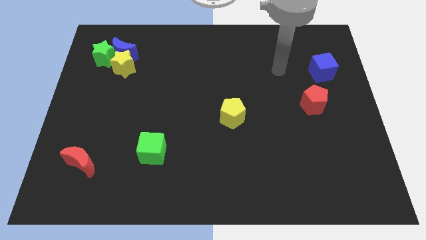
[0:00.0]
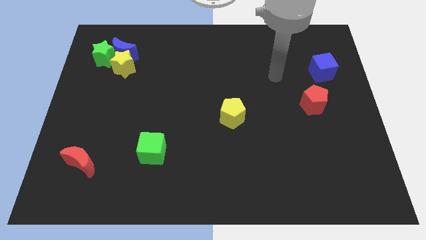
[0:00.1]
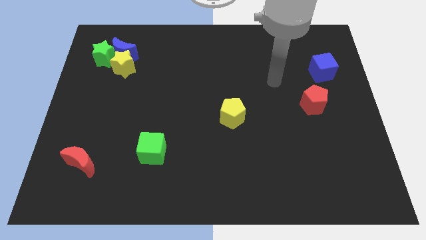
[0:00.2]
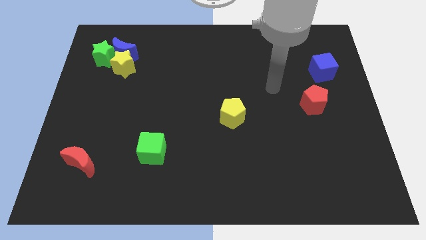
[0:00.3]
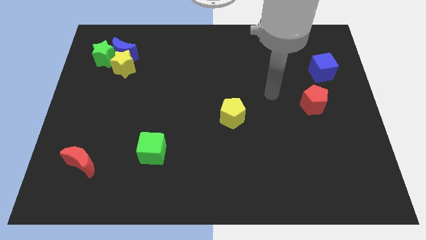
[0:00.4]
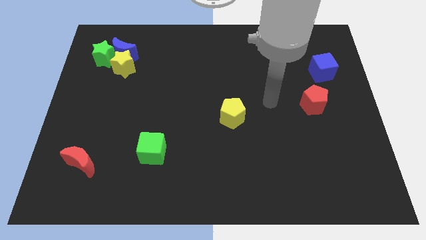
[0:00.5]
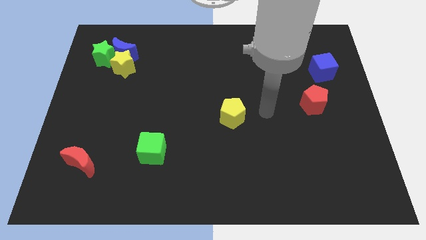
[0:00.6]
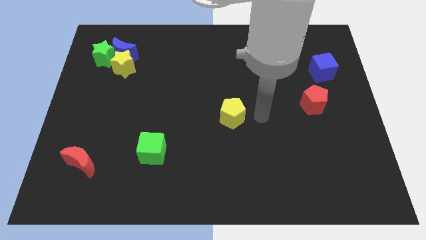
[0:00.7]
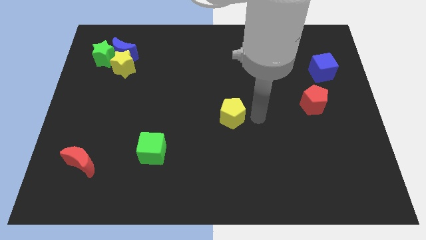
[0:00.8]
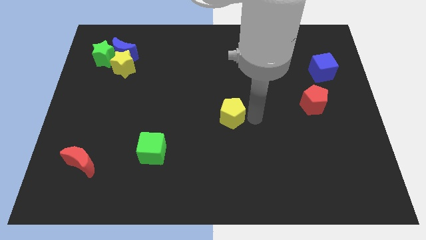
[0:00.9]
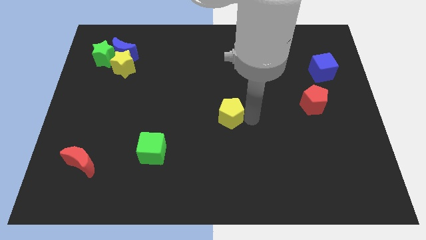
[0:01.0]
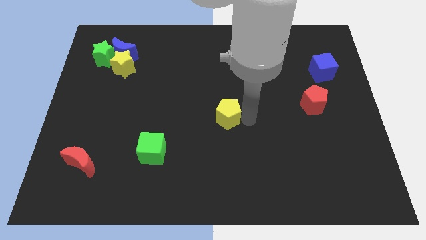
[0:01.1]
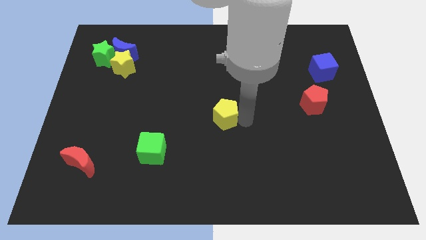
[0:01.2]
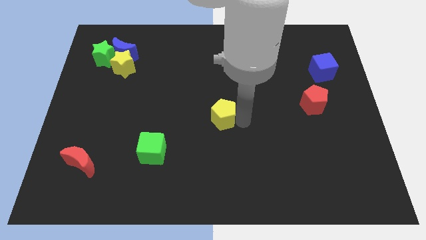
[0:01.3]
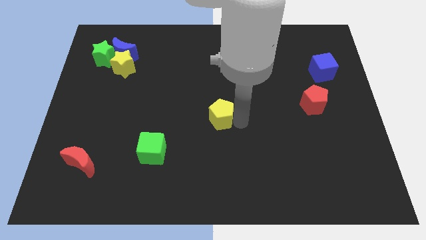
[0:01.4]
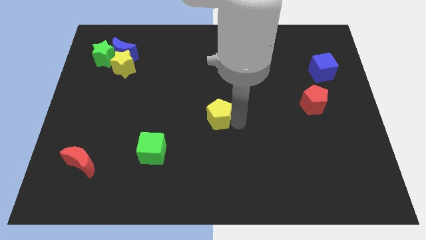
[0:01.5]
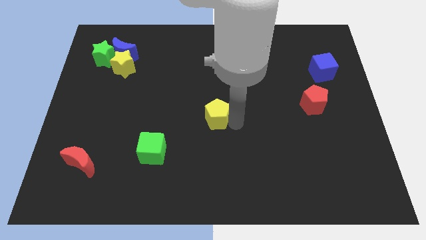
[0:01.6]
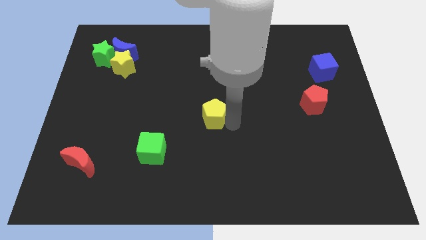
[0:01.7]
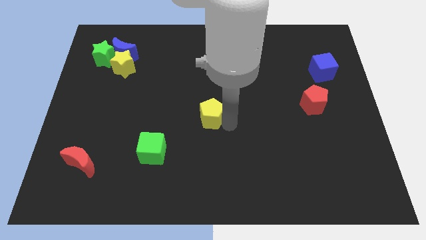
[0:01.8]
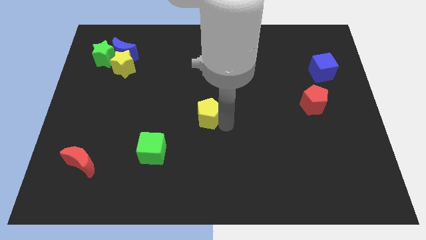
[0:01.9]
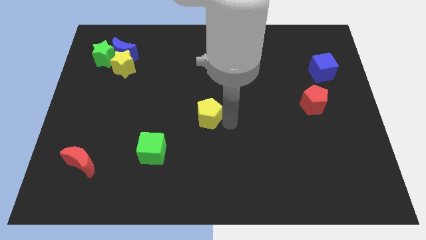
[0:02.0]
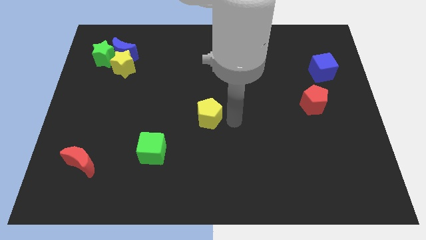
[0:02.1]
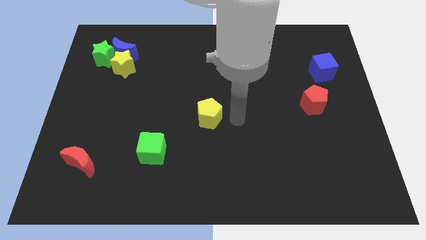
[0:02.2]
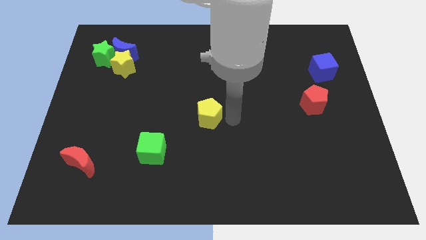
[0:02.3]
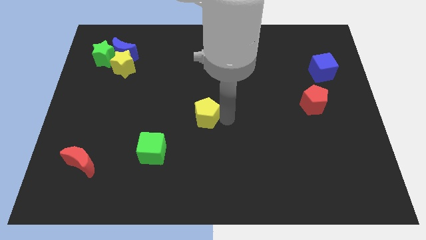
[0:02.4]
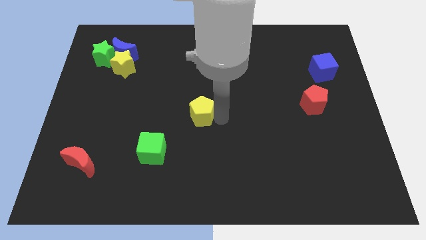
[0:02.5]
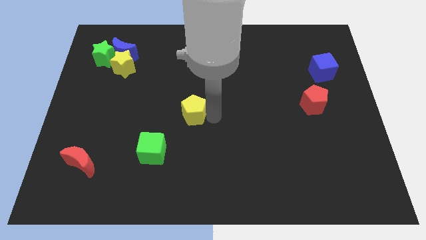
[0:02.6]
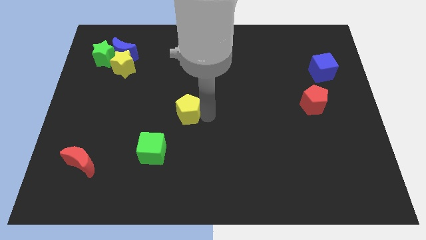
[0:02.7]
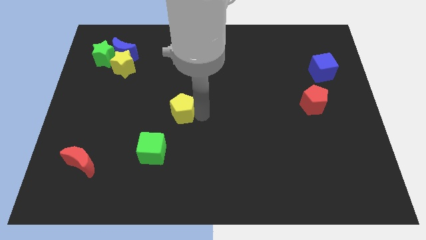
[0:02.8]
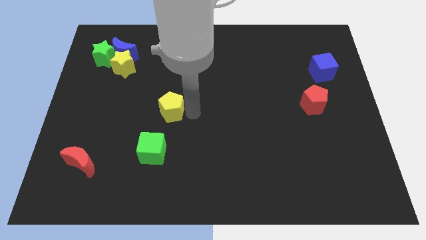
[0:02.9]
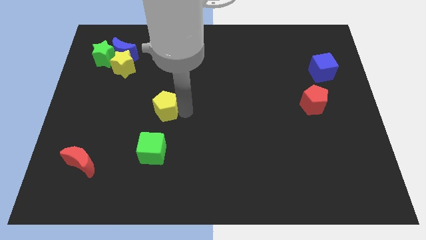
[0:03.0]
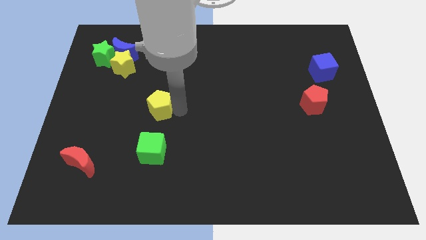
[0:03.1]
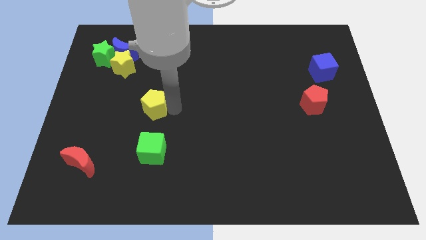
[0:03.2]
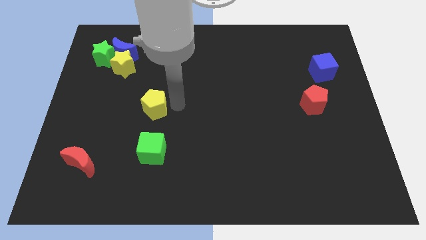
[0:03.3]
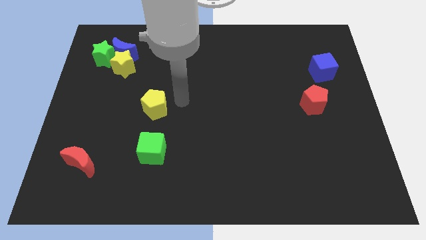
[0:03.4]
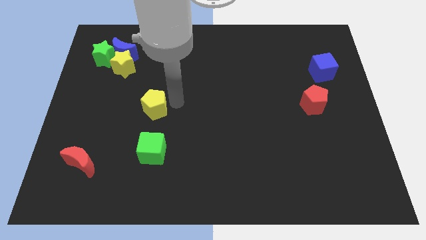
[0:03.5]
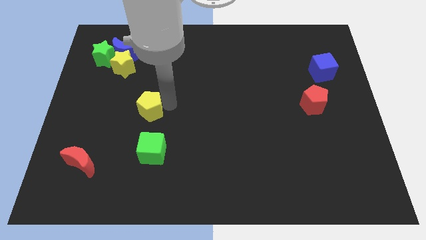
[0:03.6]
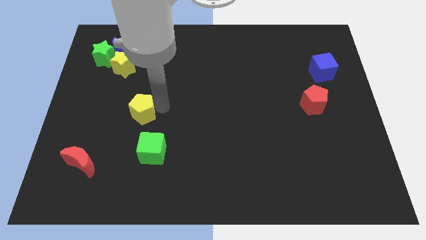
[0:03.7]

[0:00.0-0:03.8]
push the yellow pentagon left

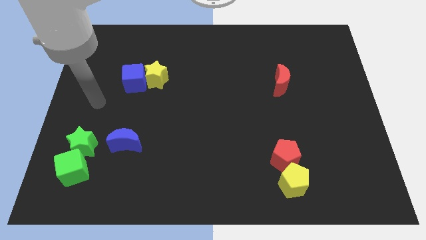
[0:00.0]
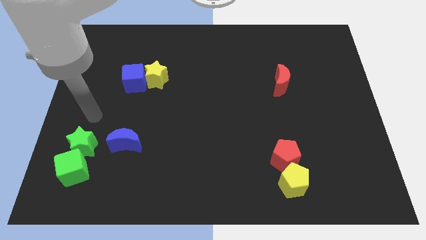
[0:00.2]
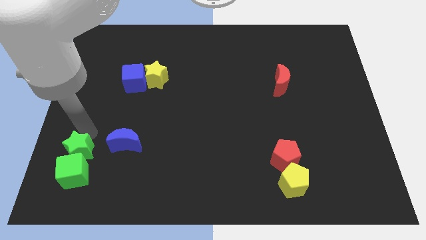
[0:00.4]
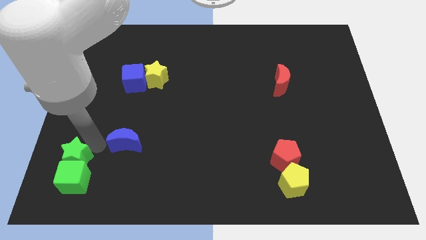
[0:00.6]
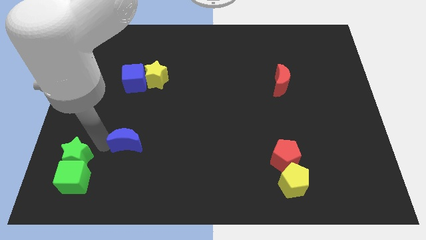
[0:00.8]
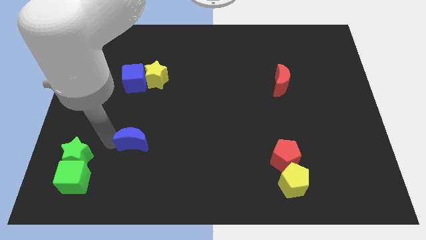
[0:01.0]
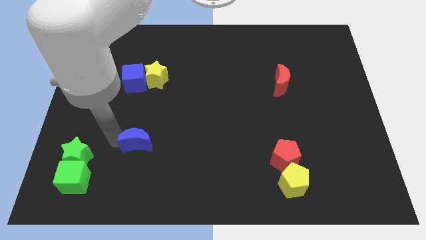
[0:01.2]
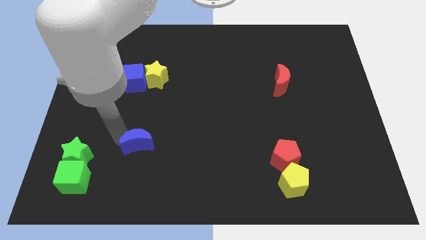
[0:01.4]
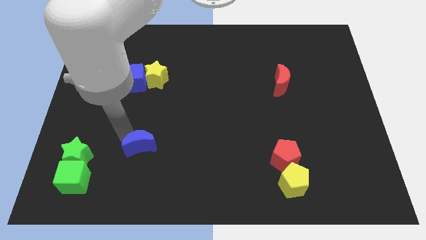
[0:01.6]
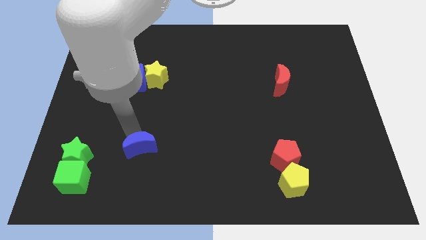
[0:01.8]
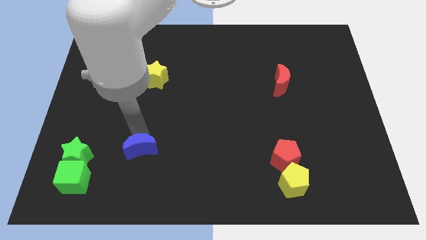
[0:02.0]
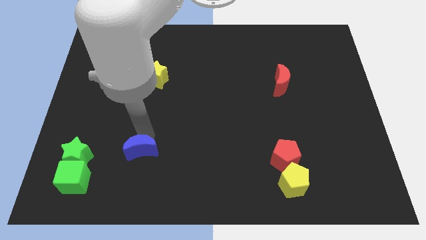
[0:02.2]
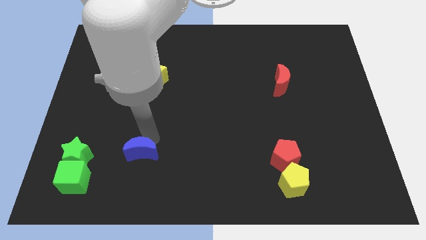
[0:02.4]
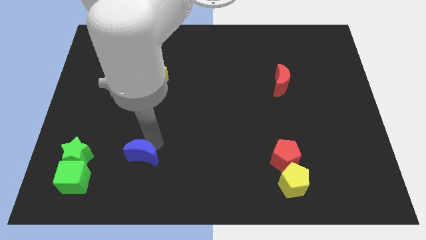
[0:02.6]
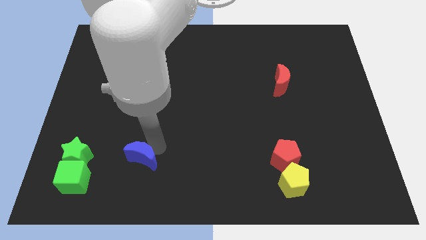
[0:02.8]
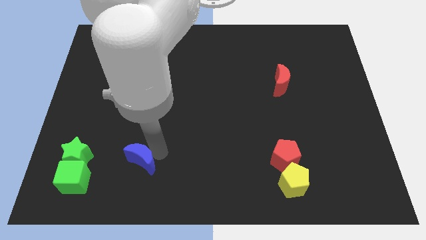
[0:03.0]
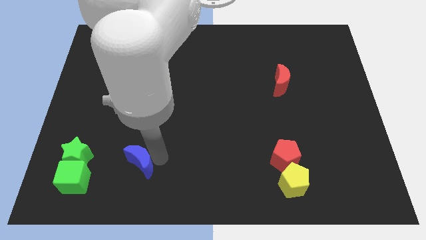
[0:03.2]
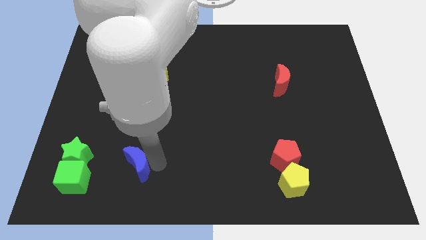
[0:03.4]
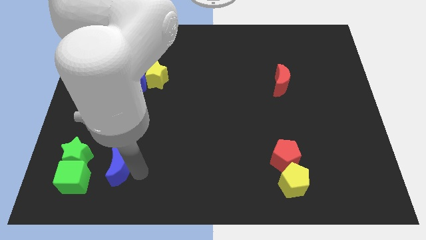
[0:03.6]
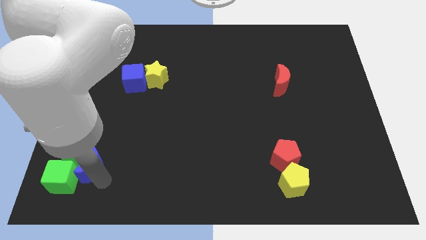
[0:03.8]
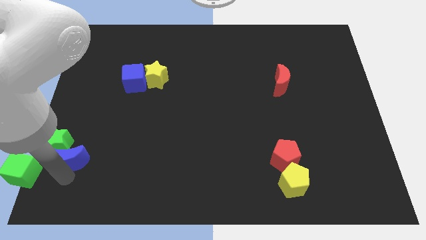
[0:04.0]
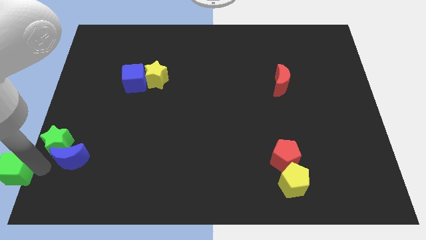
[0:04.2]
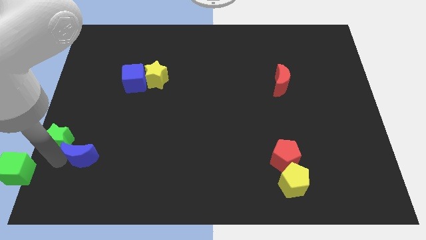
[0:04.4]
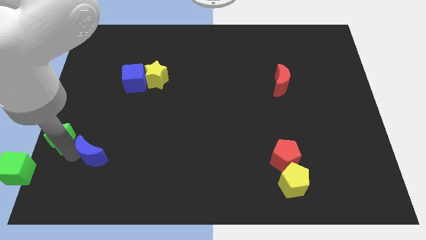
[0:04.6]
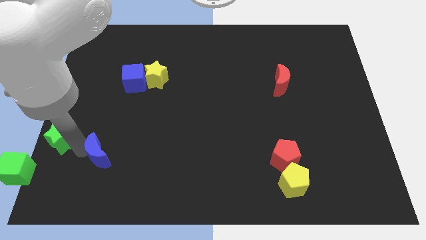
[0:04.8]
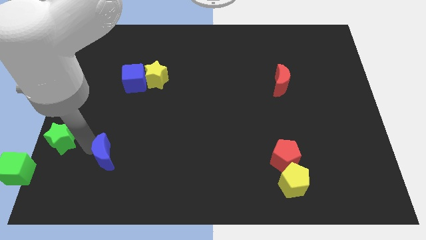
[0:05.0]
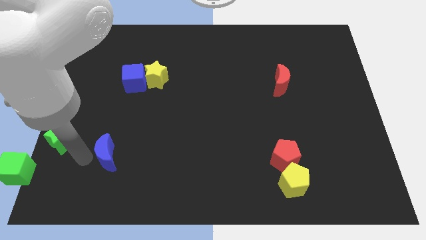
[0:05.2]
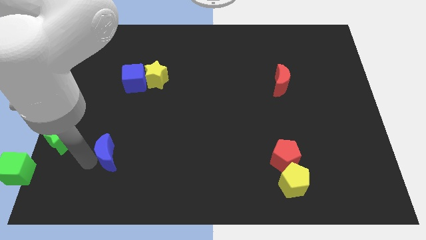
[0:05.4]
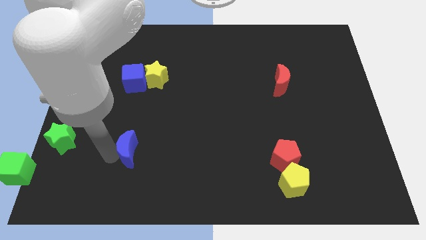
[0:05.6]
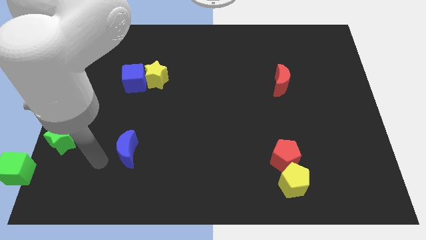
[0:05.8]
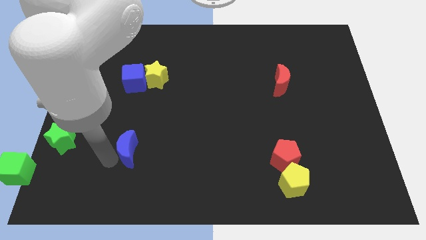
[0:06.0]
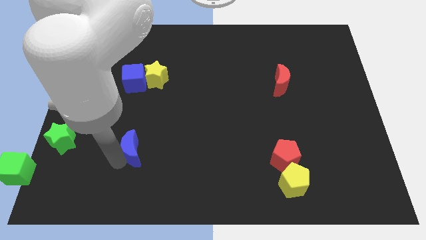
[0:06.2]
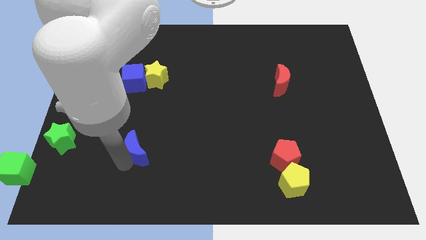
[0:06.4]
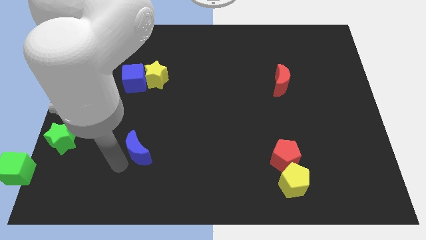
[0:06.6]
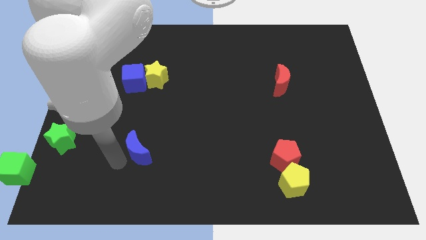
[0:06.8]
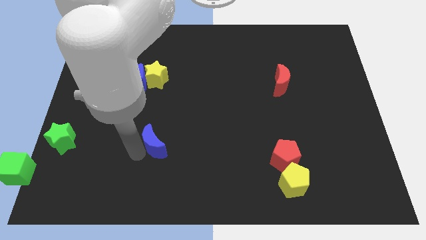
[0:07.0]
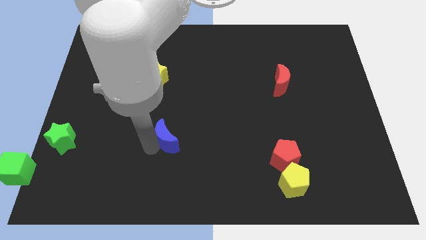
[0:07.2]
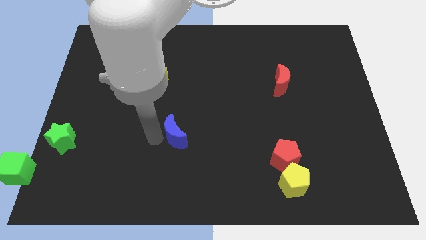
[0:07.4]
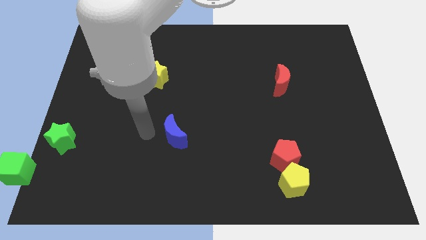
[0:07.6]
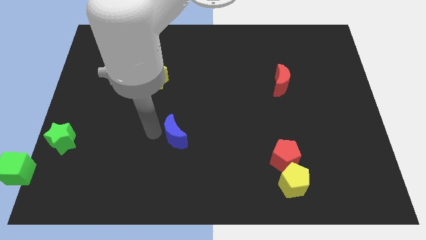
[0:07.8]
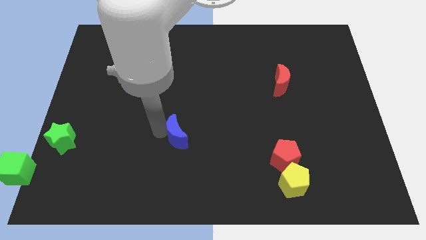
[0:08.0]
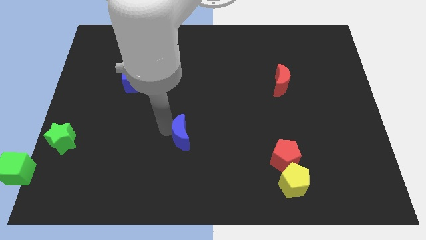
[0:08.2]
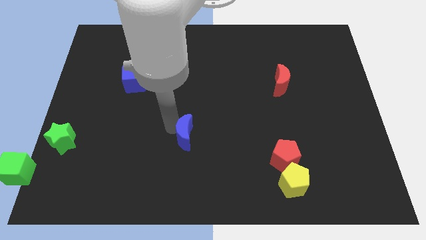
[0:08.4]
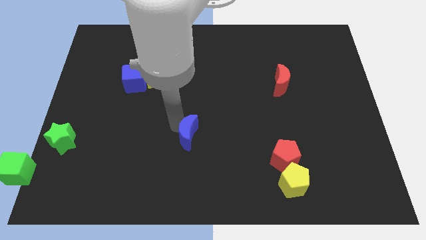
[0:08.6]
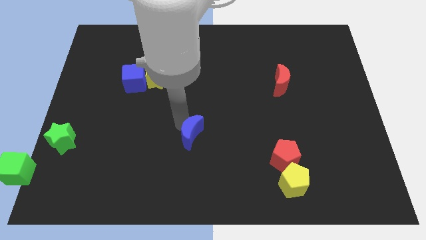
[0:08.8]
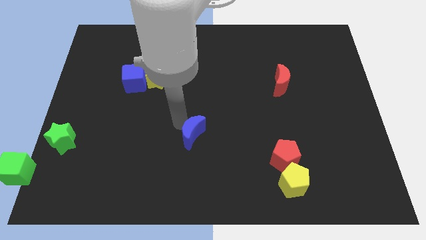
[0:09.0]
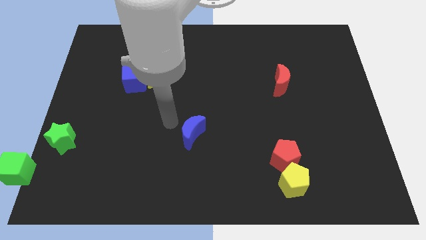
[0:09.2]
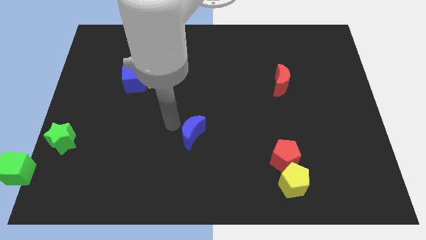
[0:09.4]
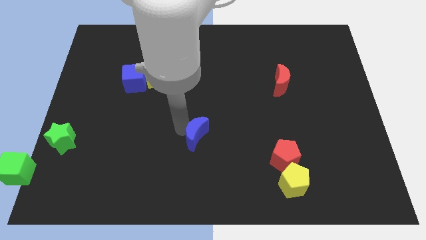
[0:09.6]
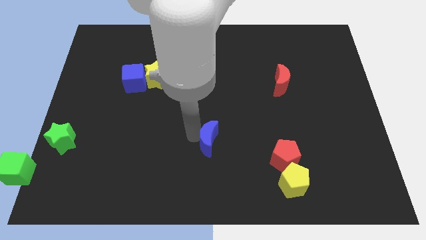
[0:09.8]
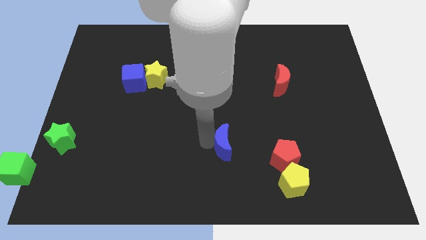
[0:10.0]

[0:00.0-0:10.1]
slide the blue moon right
